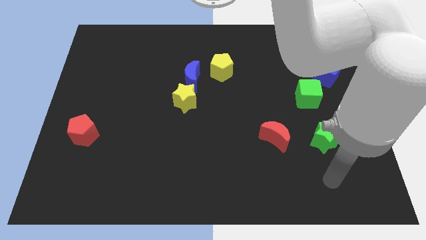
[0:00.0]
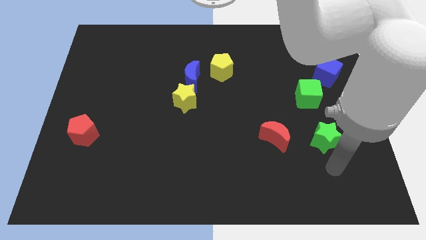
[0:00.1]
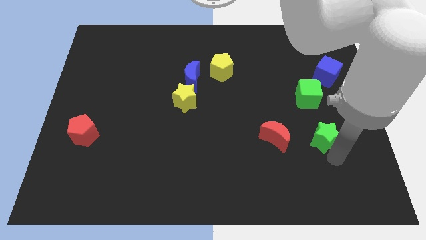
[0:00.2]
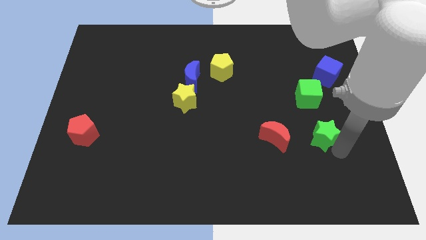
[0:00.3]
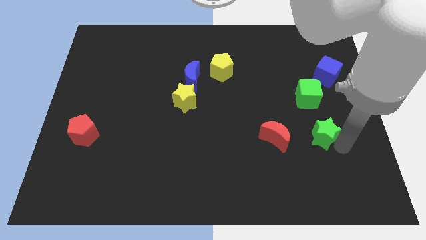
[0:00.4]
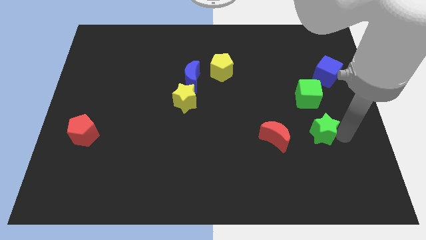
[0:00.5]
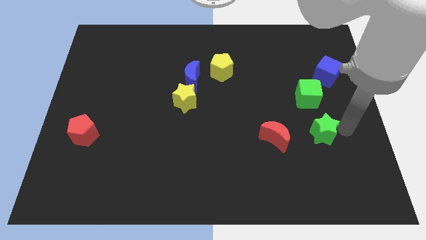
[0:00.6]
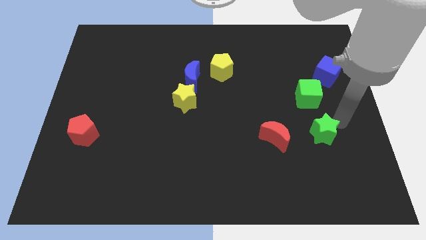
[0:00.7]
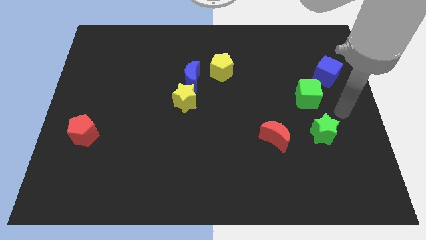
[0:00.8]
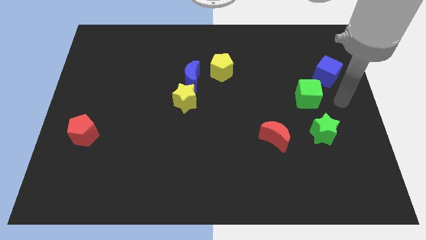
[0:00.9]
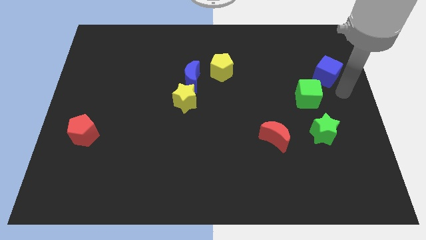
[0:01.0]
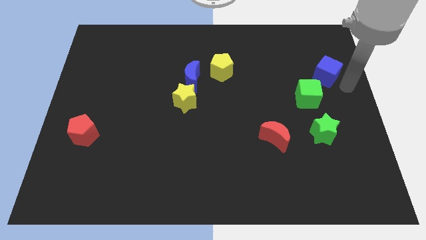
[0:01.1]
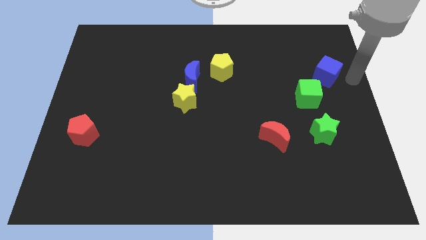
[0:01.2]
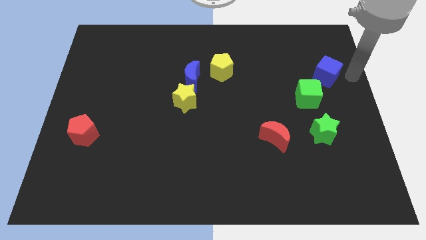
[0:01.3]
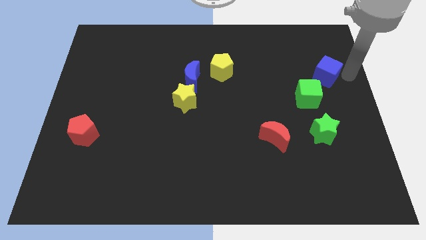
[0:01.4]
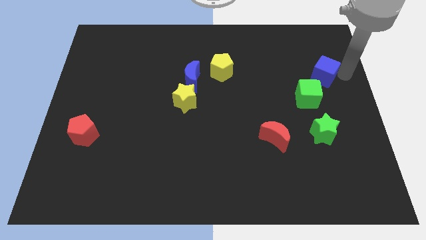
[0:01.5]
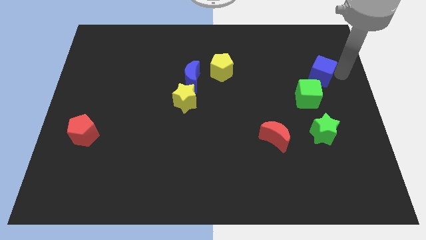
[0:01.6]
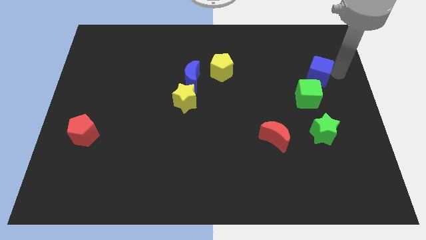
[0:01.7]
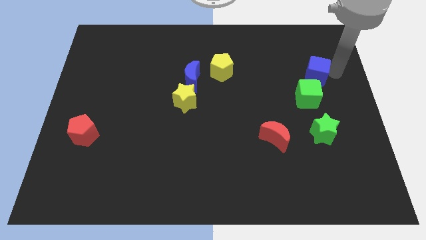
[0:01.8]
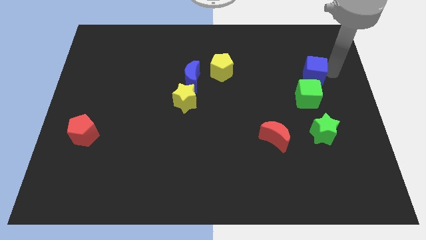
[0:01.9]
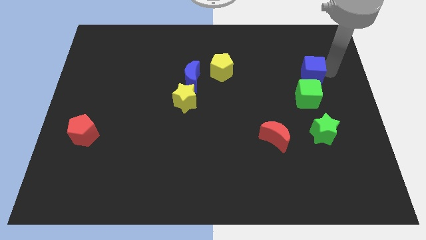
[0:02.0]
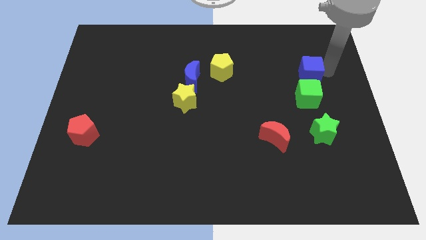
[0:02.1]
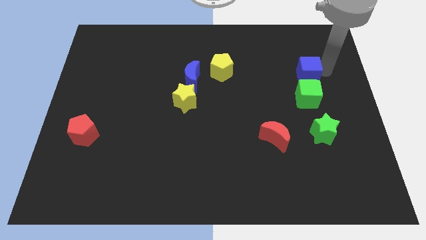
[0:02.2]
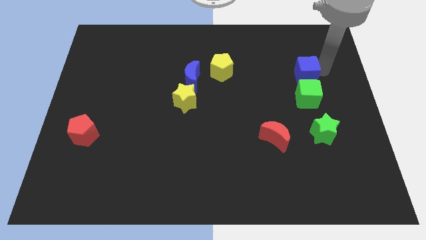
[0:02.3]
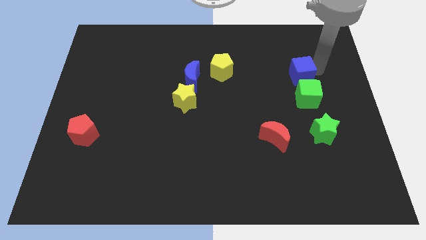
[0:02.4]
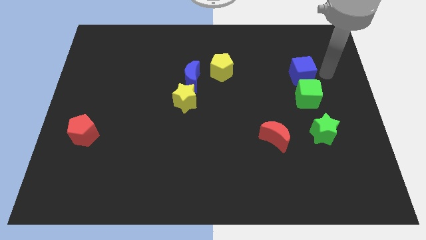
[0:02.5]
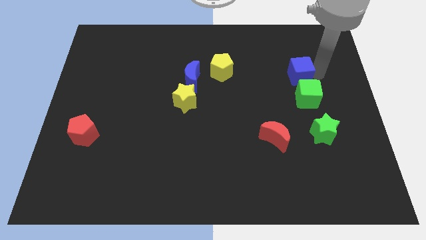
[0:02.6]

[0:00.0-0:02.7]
slightly push the blue cube to the left

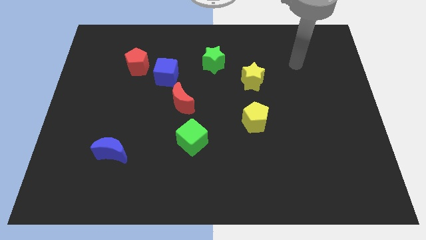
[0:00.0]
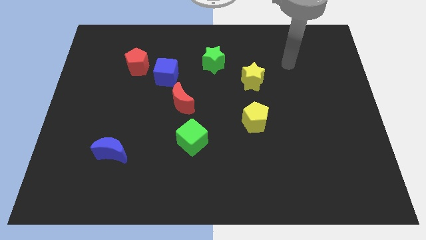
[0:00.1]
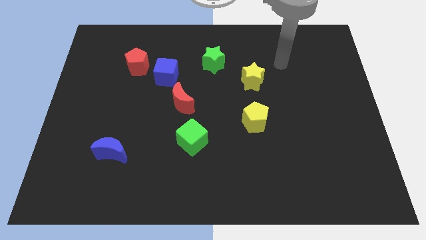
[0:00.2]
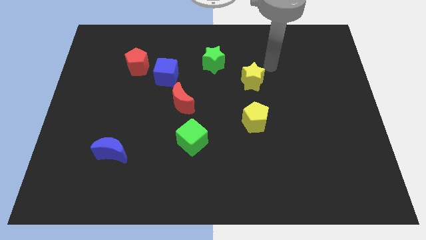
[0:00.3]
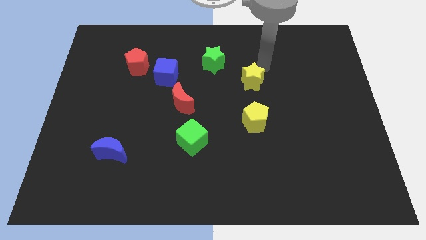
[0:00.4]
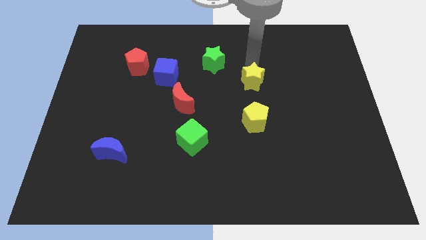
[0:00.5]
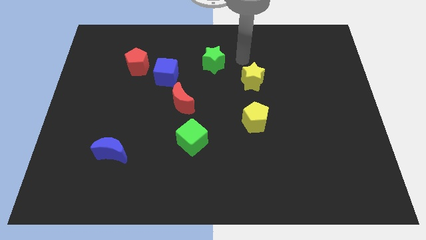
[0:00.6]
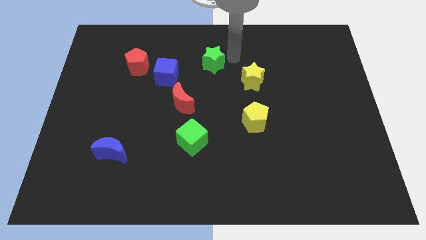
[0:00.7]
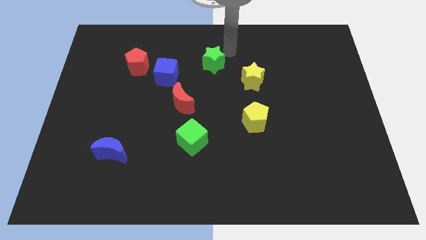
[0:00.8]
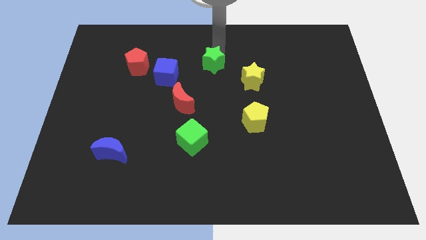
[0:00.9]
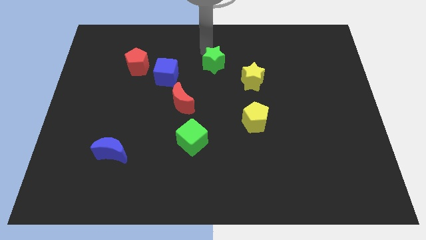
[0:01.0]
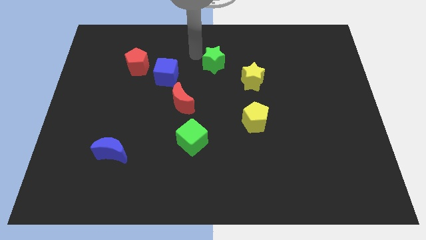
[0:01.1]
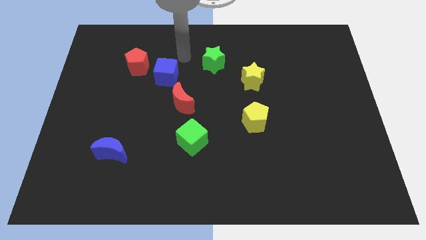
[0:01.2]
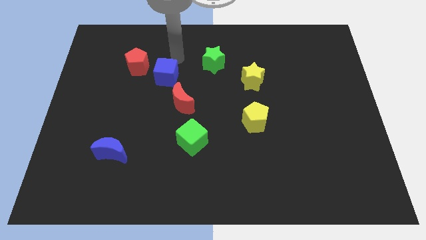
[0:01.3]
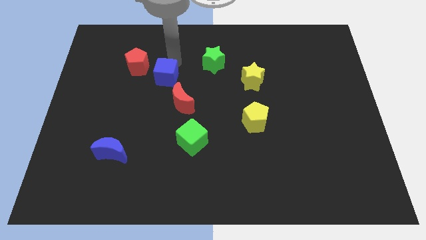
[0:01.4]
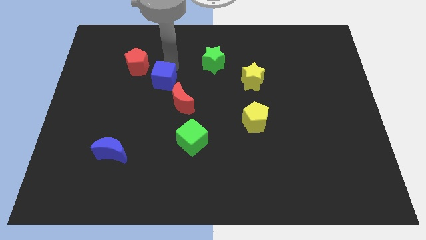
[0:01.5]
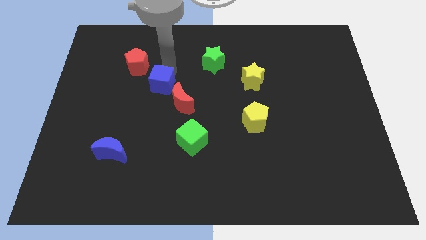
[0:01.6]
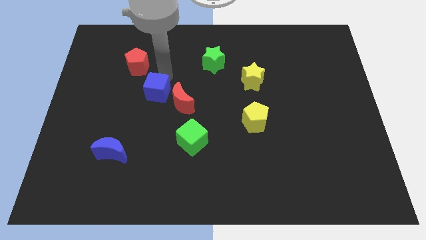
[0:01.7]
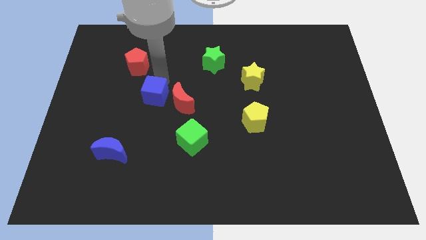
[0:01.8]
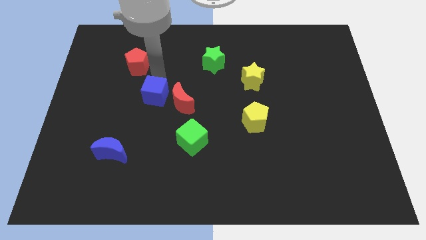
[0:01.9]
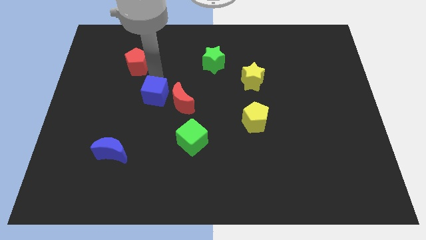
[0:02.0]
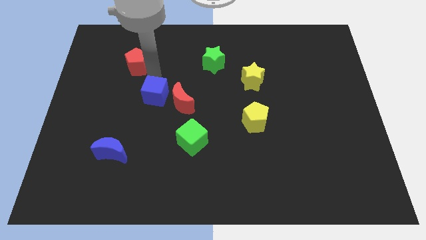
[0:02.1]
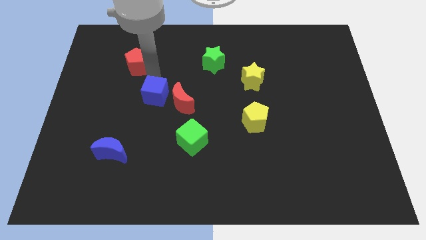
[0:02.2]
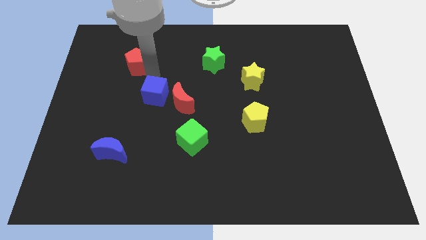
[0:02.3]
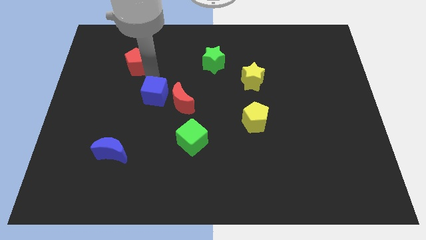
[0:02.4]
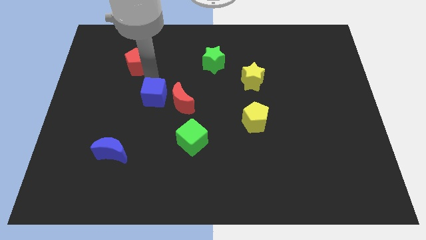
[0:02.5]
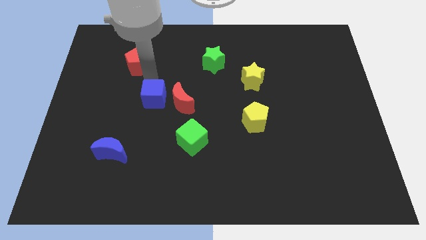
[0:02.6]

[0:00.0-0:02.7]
slide the blue cube a little down

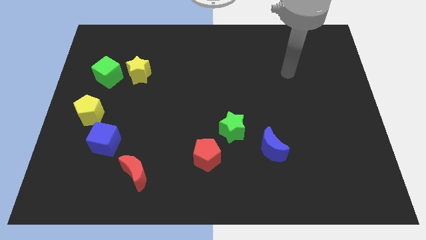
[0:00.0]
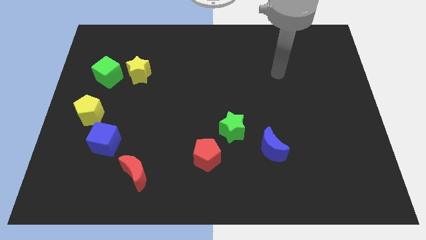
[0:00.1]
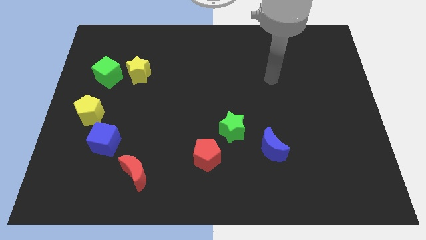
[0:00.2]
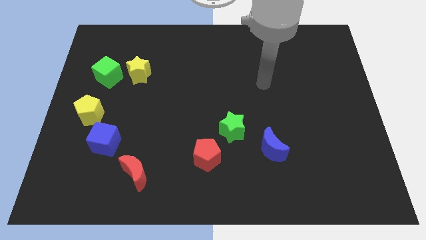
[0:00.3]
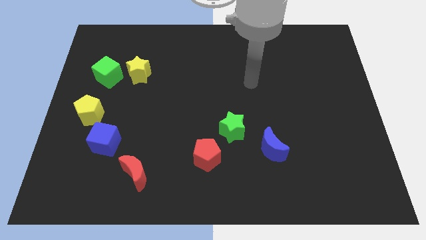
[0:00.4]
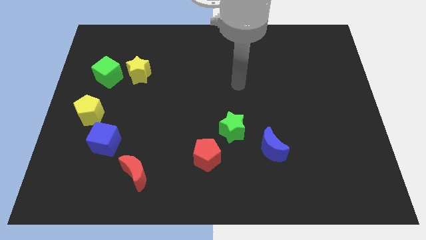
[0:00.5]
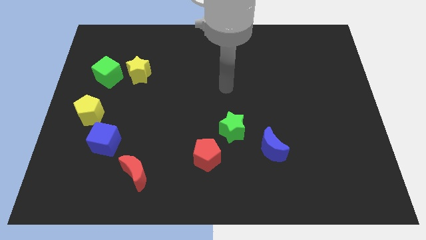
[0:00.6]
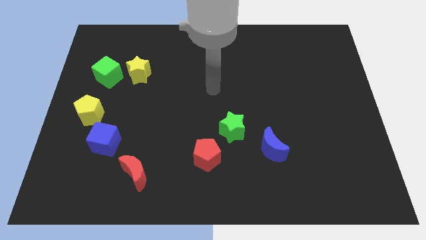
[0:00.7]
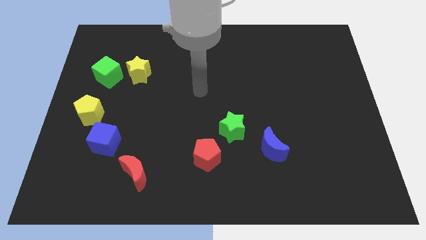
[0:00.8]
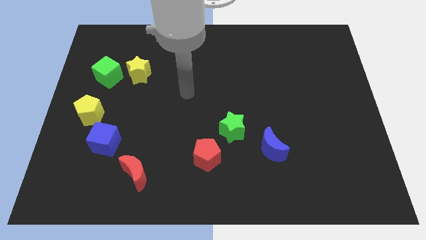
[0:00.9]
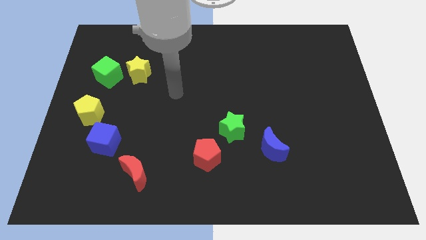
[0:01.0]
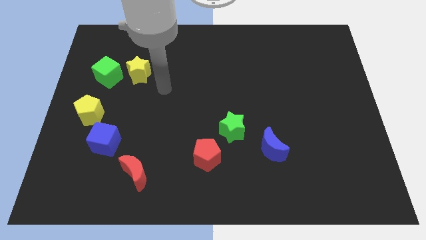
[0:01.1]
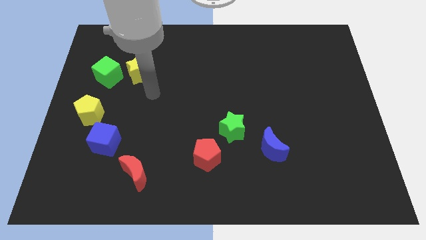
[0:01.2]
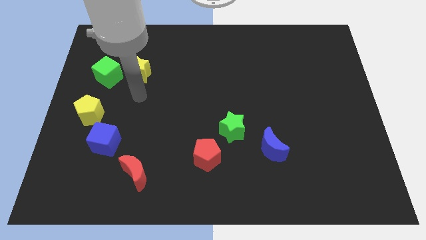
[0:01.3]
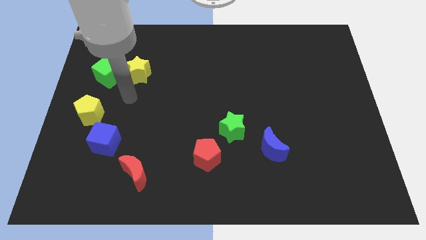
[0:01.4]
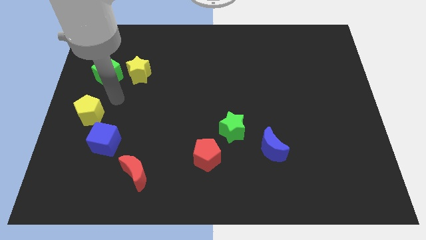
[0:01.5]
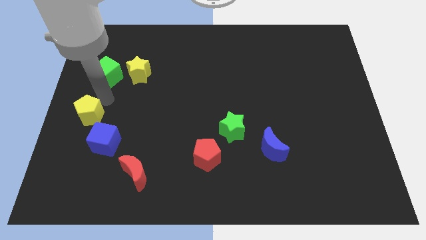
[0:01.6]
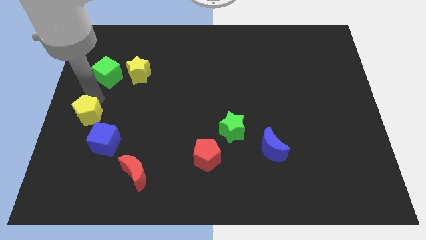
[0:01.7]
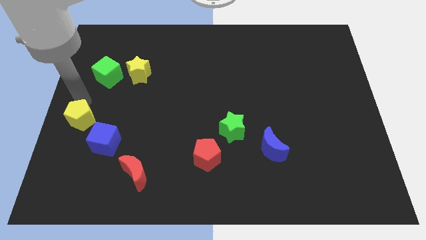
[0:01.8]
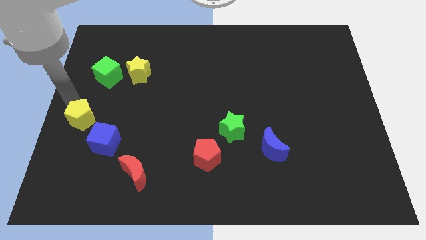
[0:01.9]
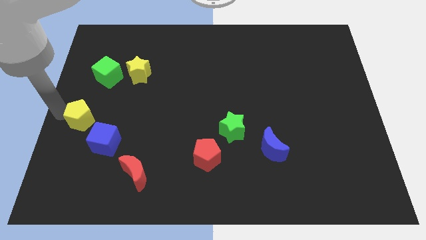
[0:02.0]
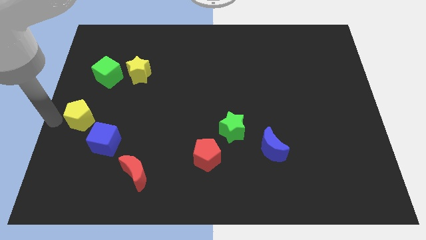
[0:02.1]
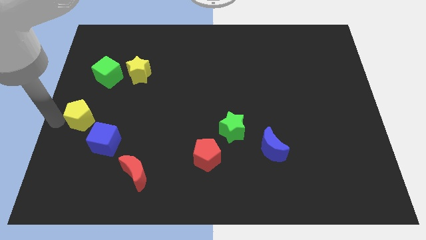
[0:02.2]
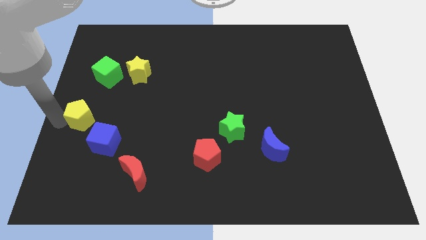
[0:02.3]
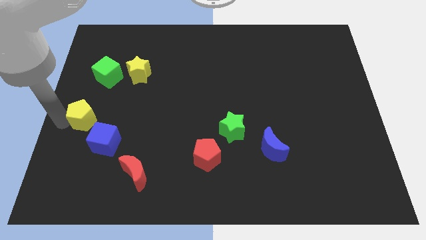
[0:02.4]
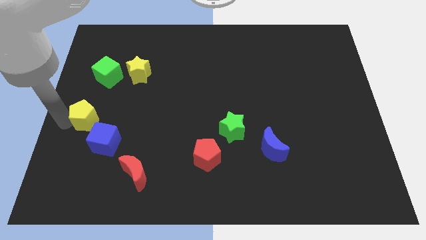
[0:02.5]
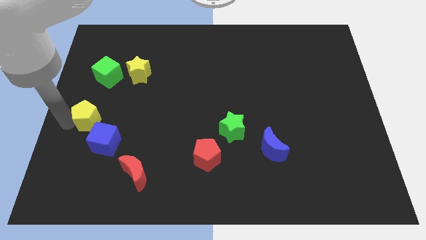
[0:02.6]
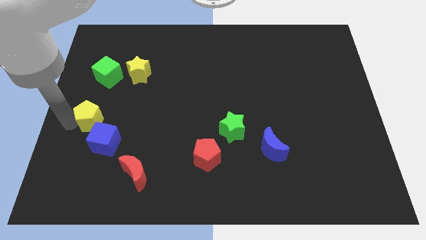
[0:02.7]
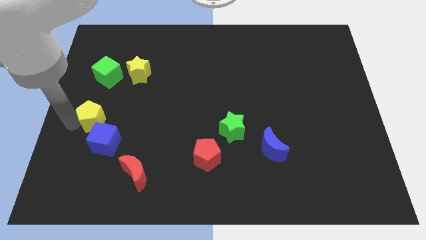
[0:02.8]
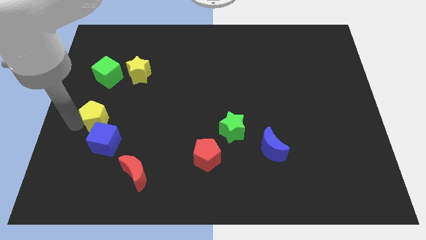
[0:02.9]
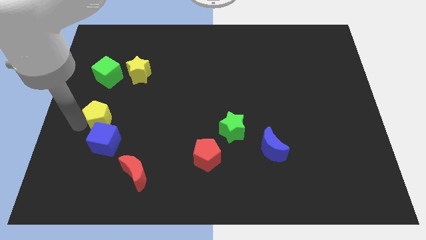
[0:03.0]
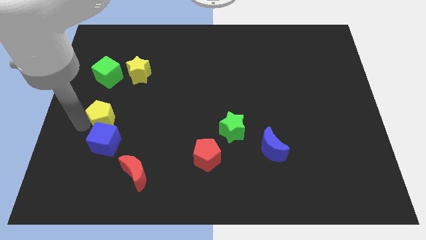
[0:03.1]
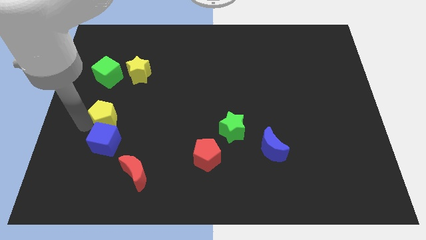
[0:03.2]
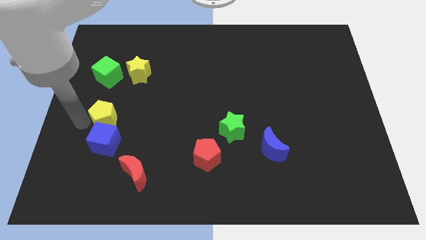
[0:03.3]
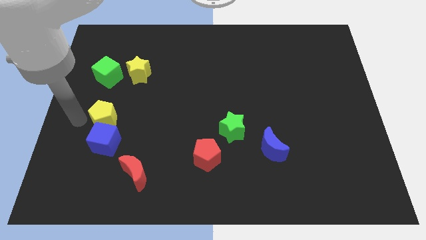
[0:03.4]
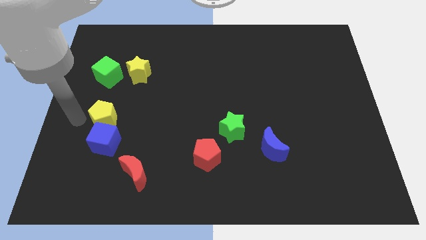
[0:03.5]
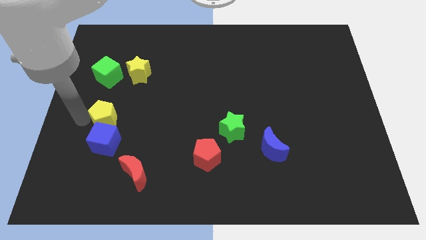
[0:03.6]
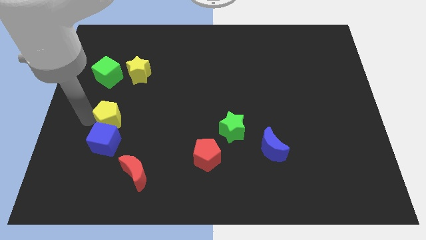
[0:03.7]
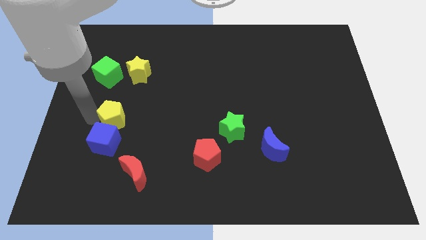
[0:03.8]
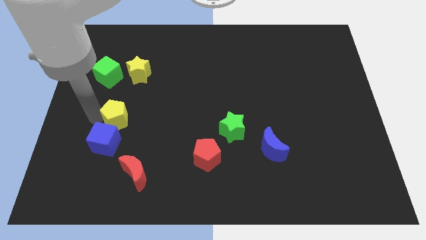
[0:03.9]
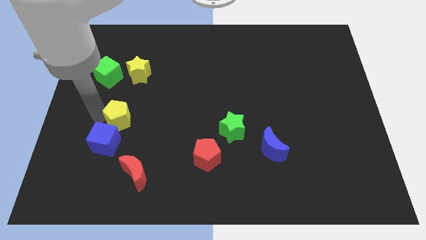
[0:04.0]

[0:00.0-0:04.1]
slightly push the yellow pentagon to the right
